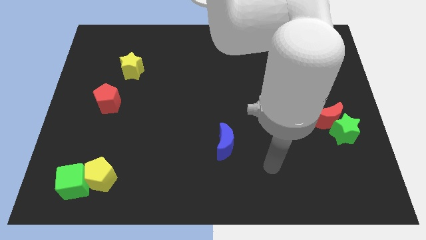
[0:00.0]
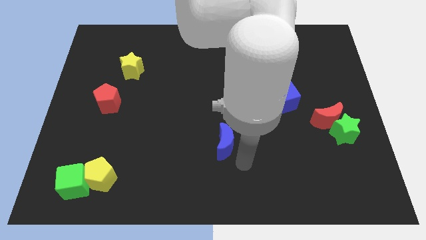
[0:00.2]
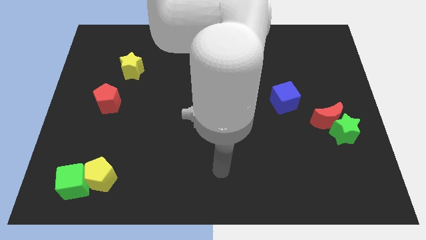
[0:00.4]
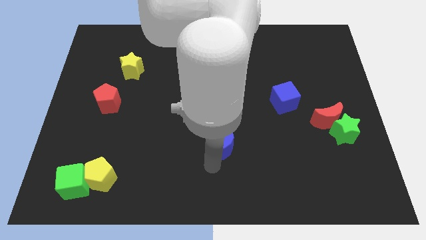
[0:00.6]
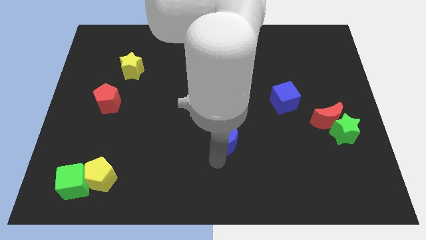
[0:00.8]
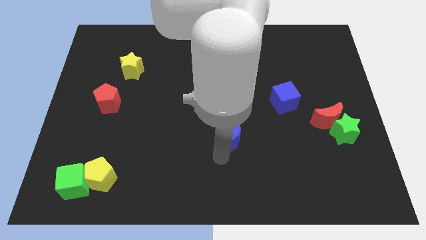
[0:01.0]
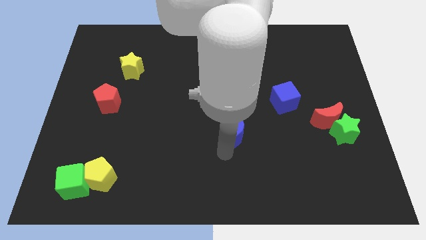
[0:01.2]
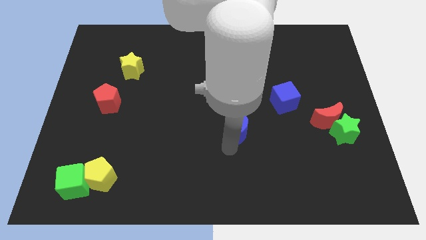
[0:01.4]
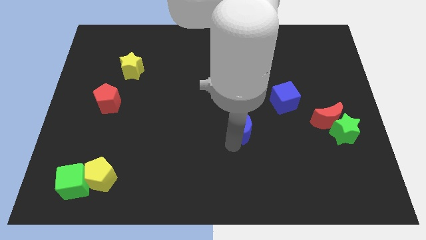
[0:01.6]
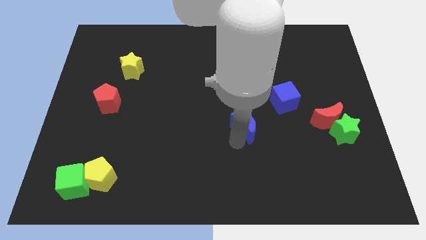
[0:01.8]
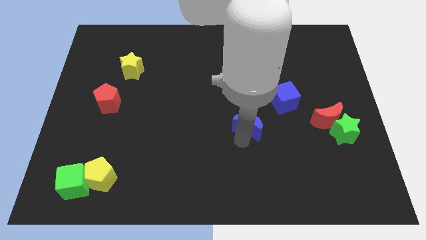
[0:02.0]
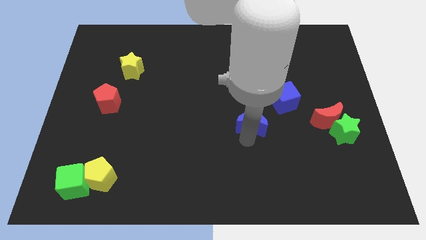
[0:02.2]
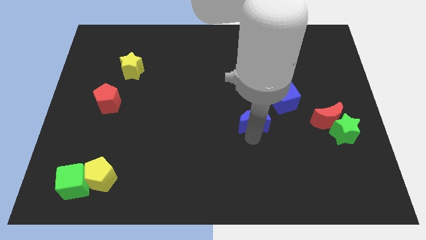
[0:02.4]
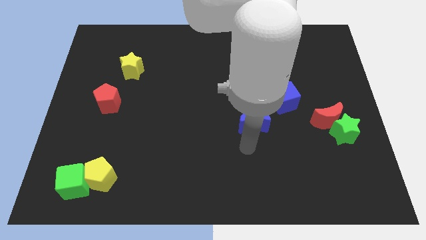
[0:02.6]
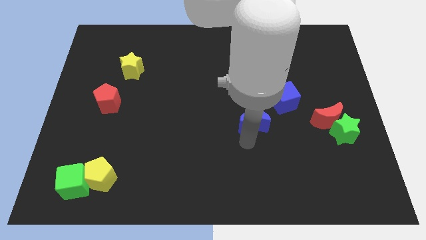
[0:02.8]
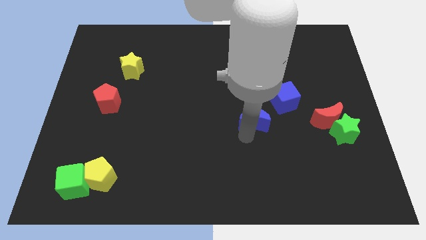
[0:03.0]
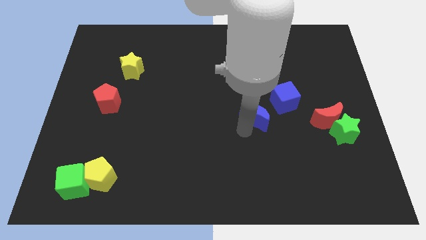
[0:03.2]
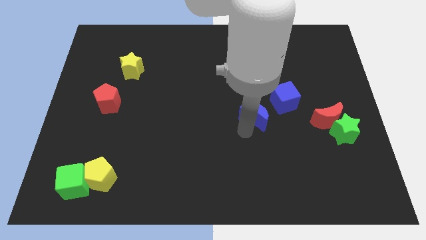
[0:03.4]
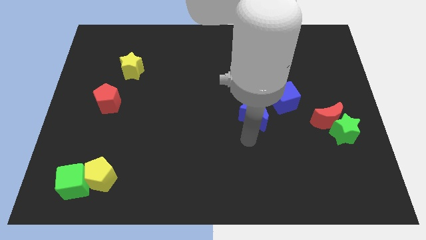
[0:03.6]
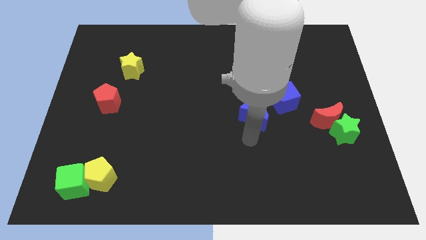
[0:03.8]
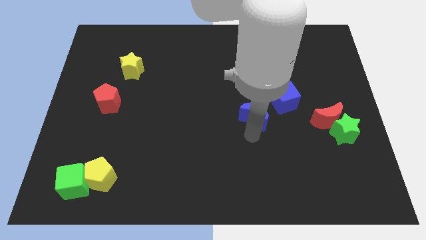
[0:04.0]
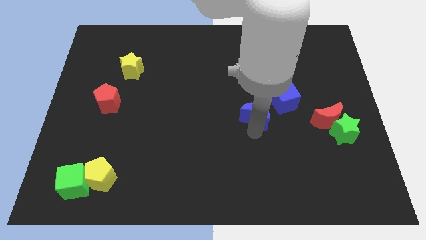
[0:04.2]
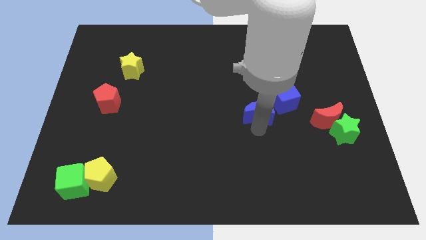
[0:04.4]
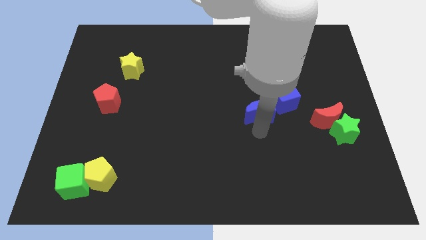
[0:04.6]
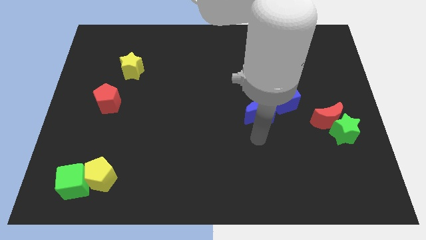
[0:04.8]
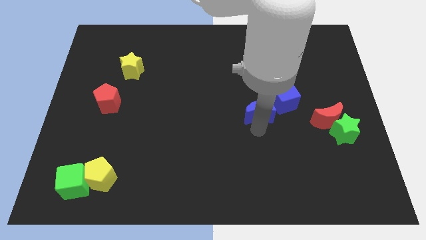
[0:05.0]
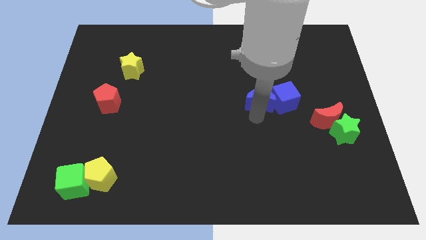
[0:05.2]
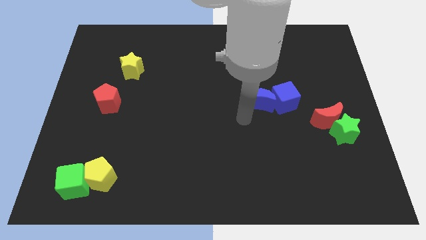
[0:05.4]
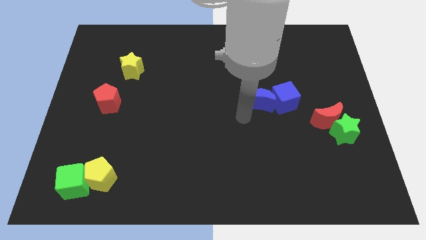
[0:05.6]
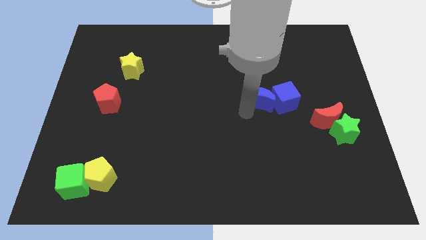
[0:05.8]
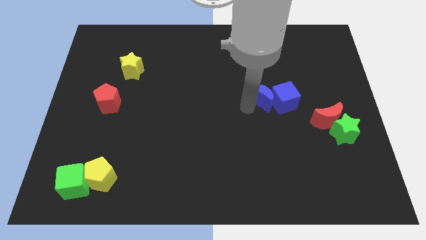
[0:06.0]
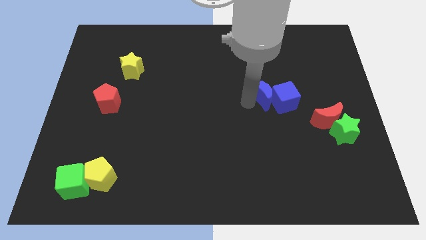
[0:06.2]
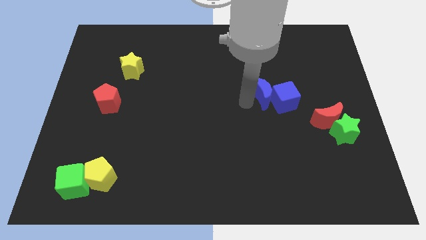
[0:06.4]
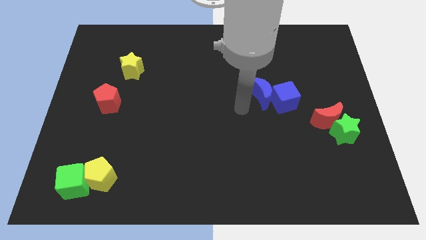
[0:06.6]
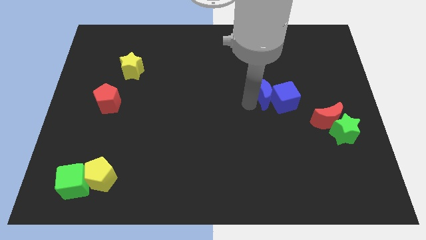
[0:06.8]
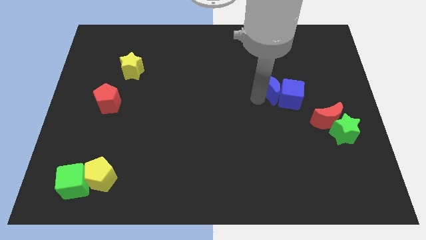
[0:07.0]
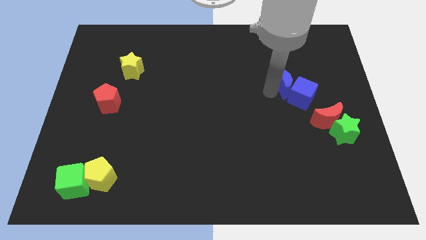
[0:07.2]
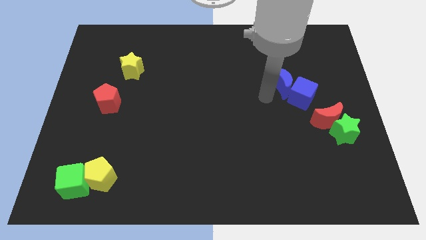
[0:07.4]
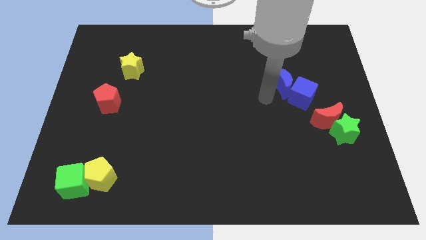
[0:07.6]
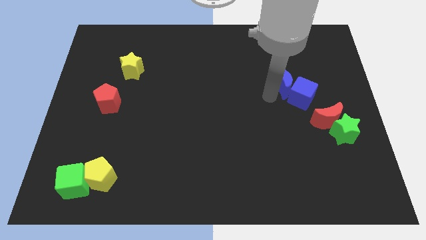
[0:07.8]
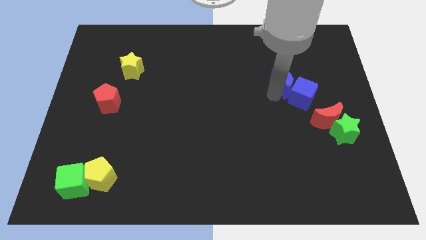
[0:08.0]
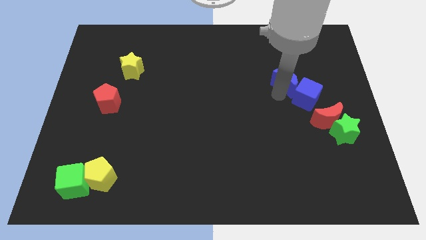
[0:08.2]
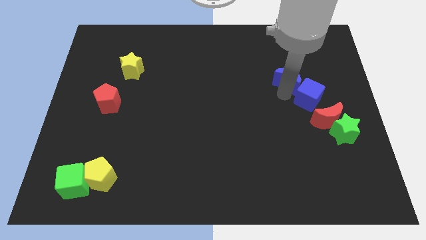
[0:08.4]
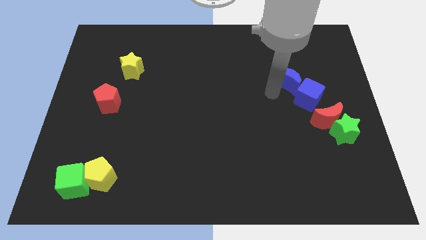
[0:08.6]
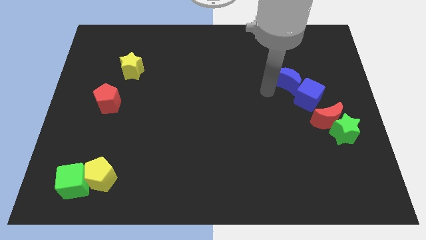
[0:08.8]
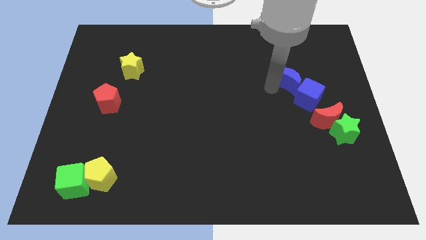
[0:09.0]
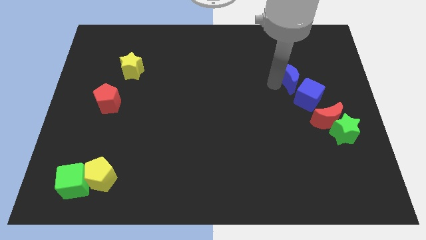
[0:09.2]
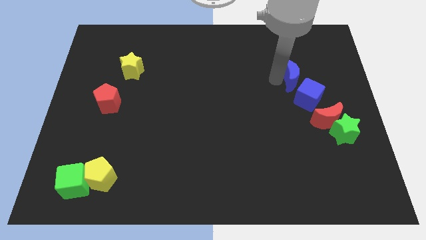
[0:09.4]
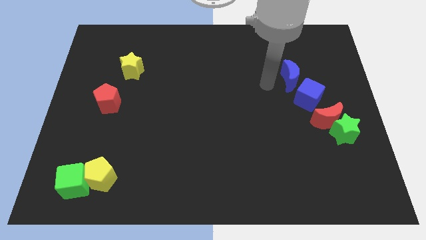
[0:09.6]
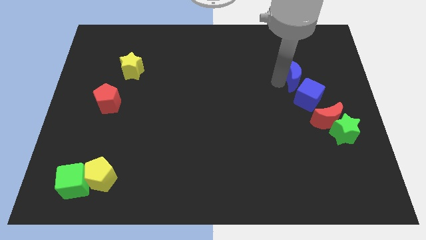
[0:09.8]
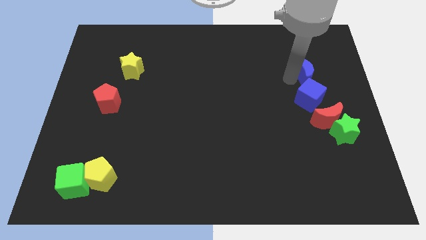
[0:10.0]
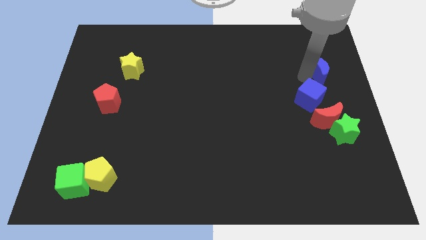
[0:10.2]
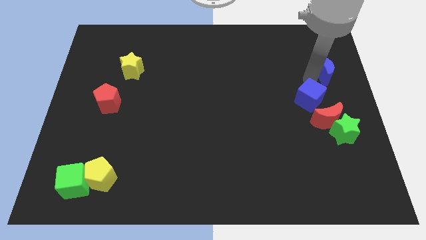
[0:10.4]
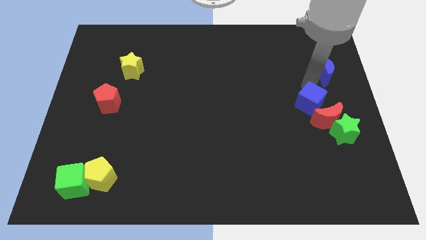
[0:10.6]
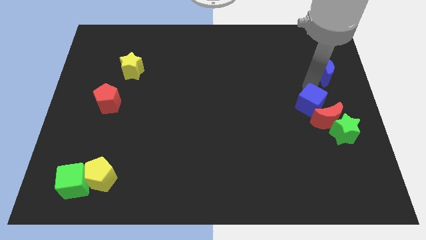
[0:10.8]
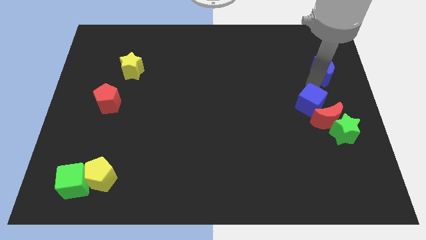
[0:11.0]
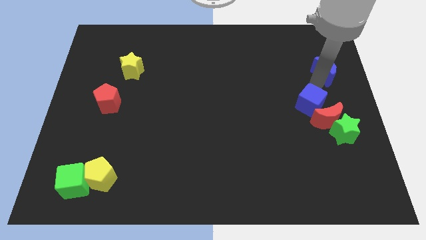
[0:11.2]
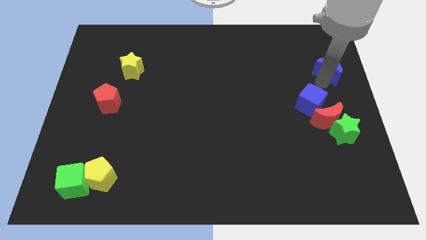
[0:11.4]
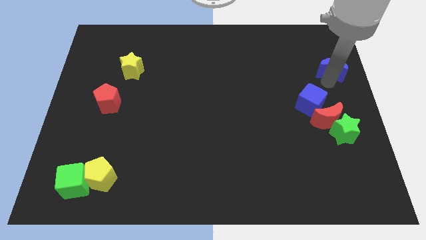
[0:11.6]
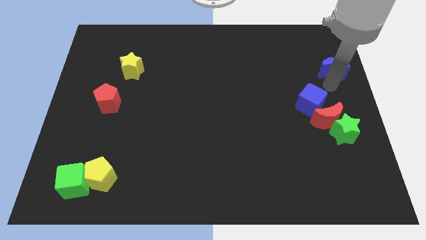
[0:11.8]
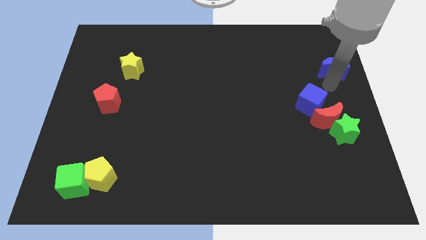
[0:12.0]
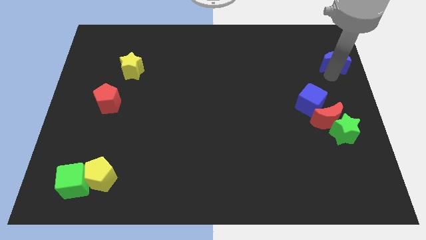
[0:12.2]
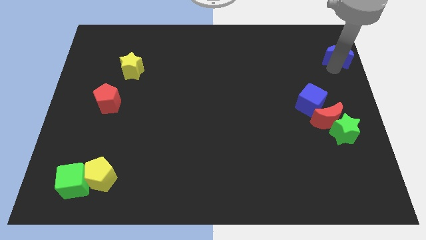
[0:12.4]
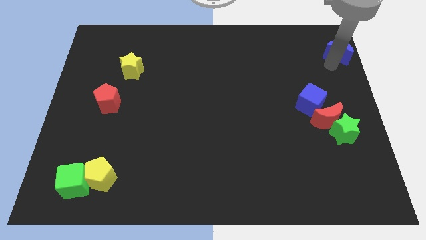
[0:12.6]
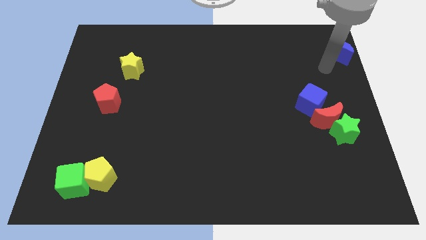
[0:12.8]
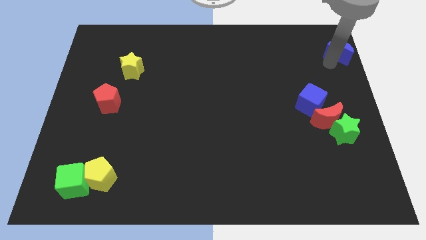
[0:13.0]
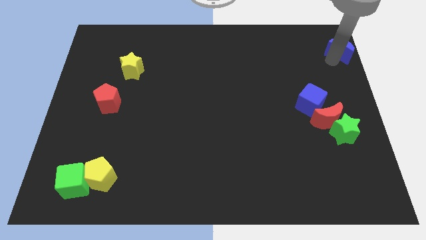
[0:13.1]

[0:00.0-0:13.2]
move the blue moon to the top right of the board

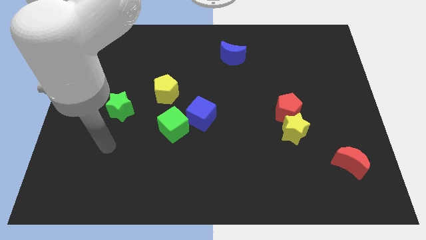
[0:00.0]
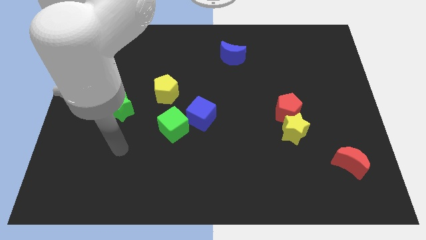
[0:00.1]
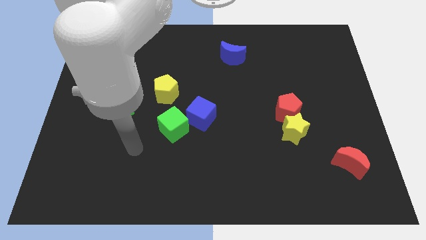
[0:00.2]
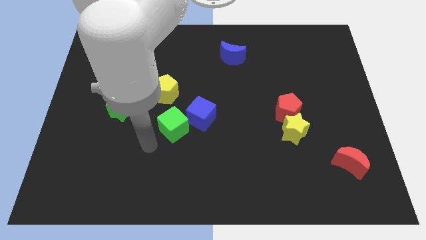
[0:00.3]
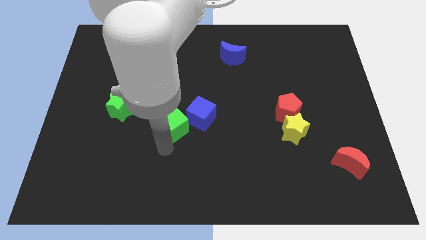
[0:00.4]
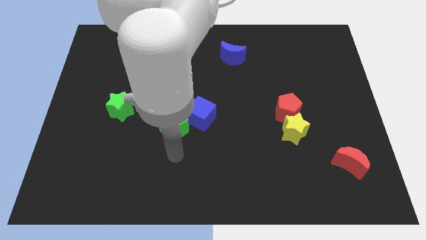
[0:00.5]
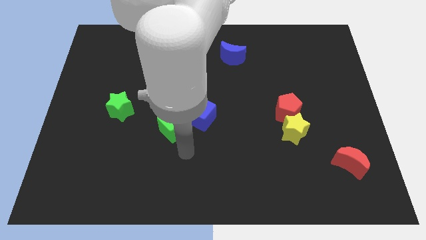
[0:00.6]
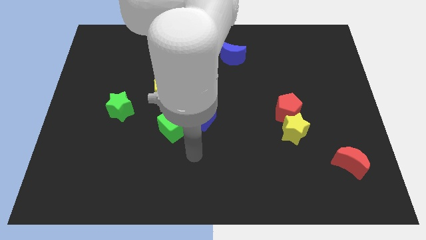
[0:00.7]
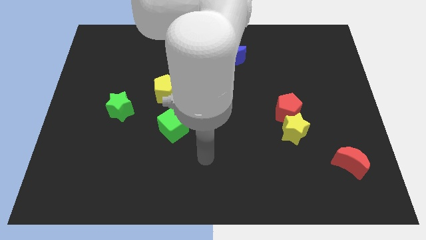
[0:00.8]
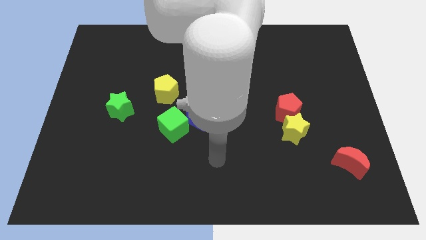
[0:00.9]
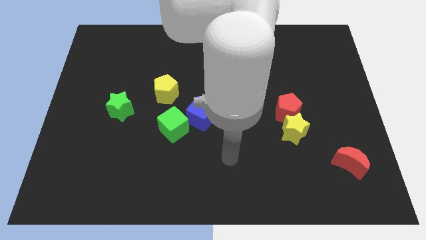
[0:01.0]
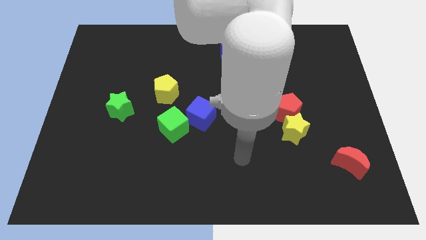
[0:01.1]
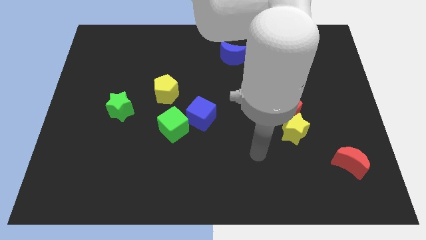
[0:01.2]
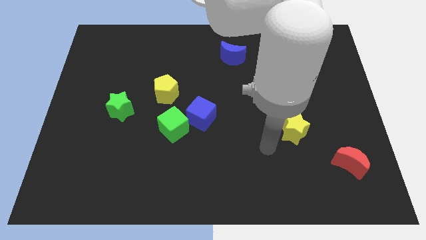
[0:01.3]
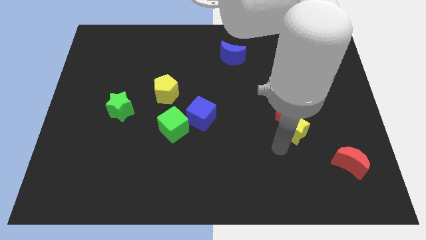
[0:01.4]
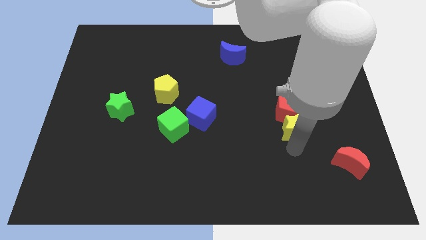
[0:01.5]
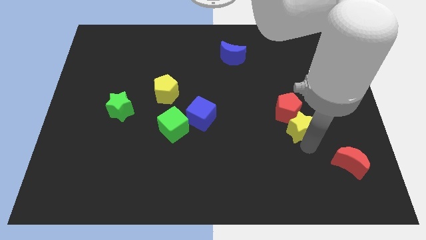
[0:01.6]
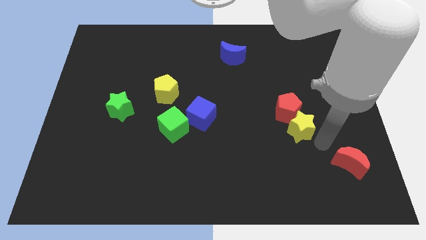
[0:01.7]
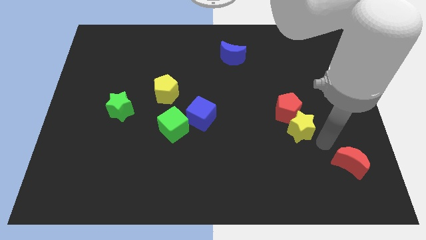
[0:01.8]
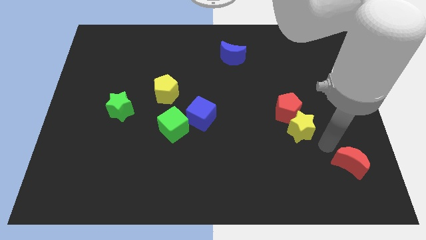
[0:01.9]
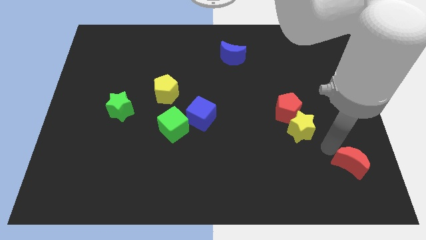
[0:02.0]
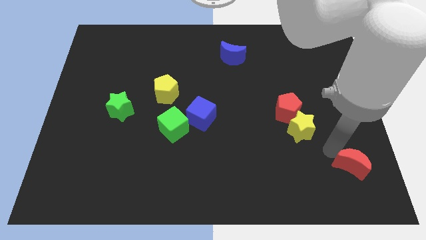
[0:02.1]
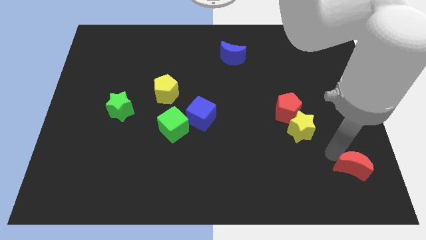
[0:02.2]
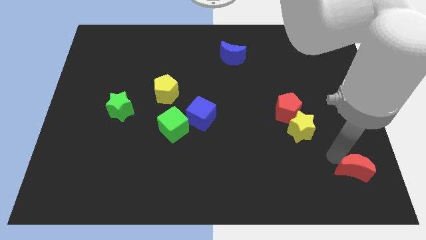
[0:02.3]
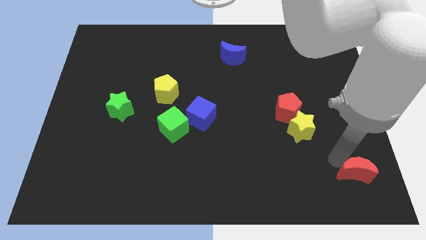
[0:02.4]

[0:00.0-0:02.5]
move the red moon to the lower right corner
